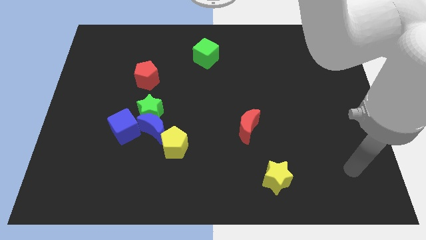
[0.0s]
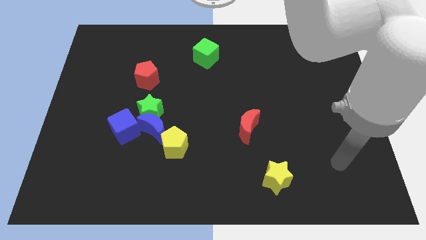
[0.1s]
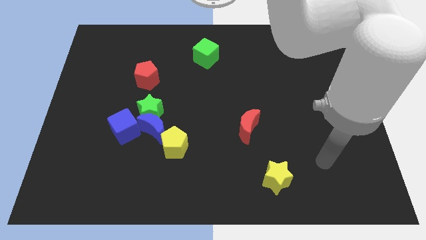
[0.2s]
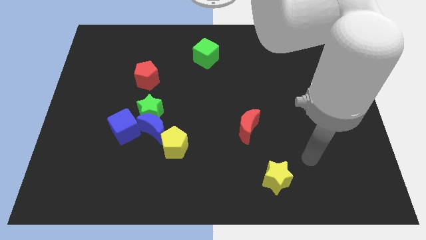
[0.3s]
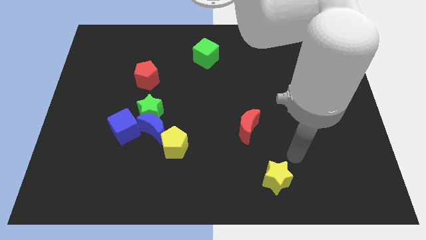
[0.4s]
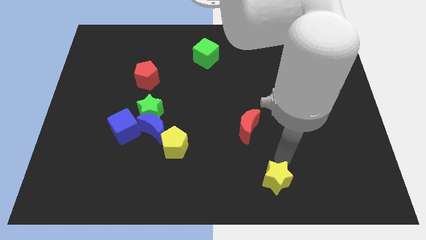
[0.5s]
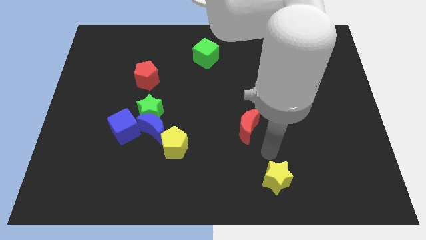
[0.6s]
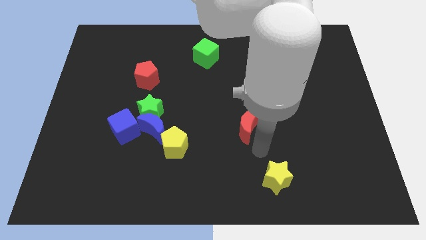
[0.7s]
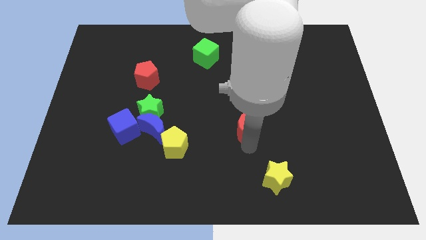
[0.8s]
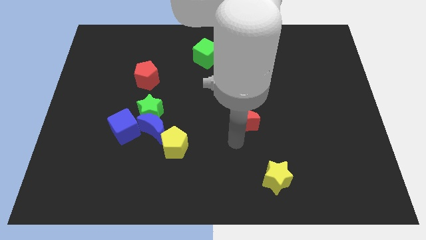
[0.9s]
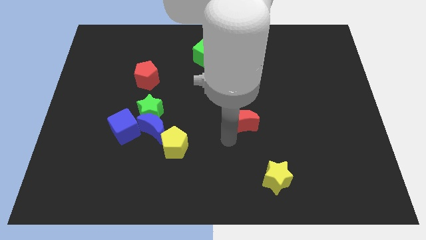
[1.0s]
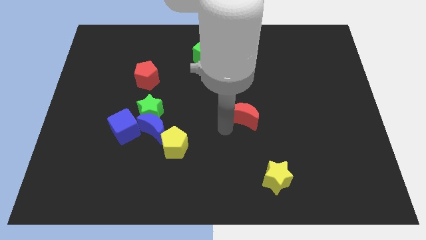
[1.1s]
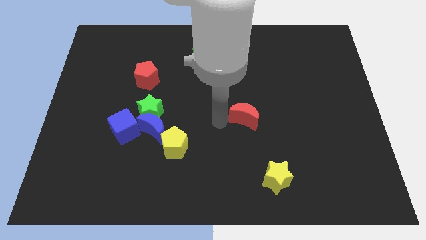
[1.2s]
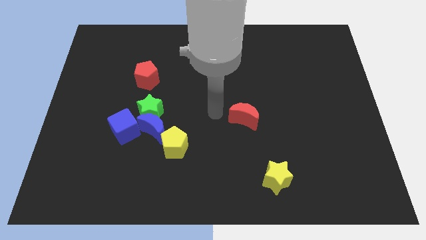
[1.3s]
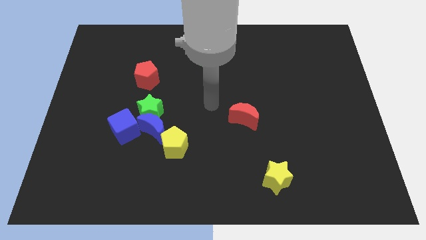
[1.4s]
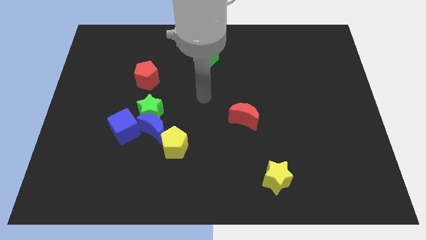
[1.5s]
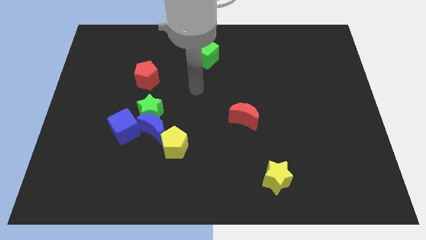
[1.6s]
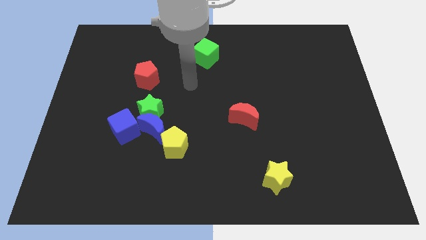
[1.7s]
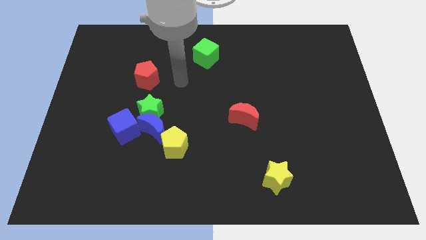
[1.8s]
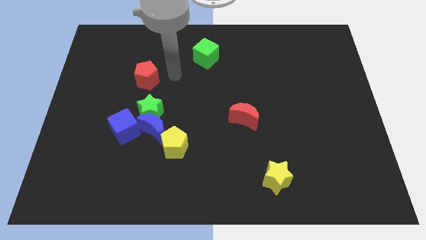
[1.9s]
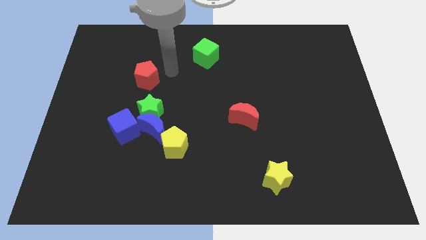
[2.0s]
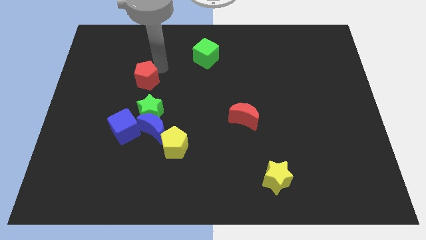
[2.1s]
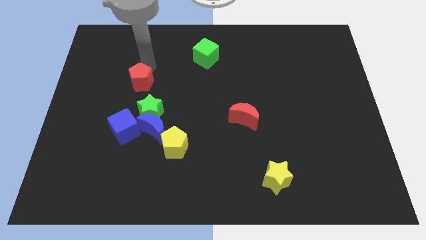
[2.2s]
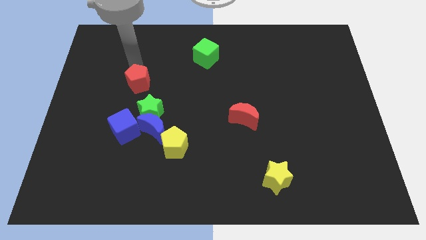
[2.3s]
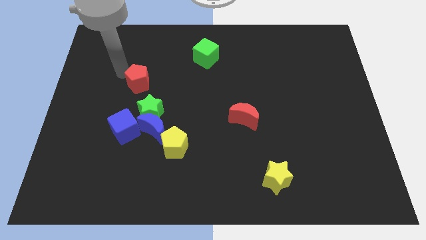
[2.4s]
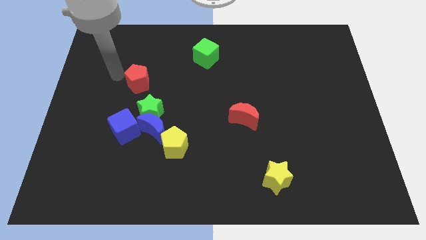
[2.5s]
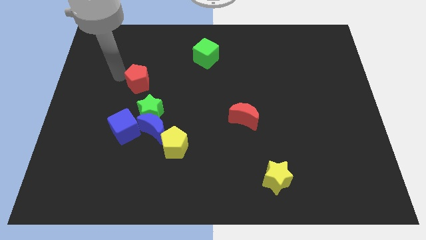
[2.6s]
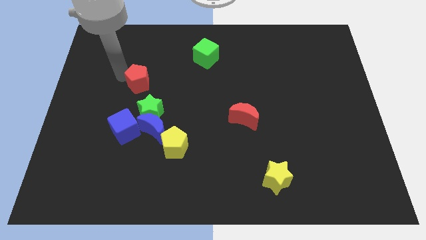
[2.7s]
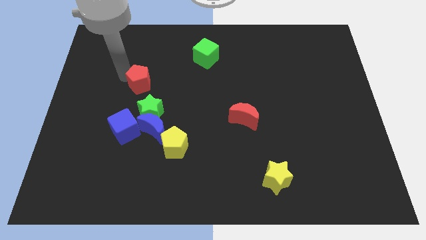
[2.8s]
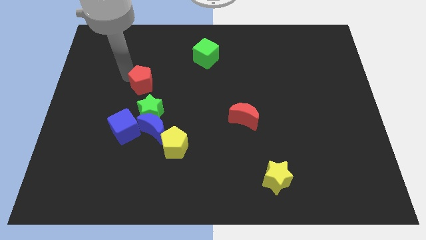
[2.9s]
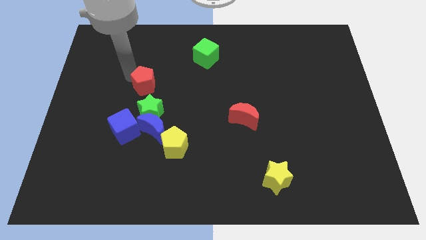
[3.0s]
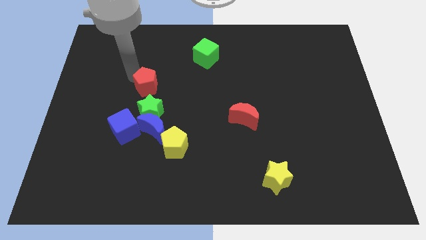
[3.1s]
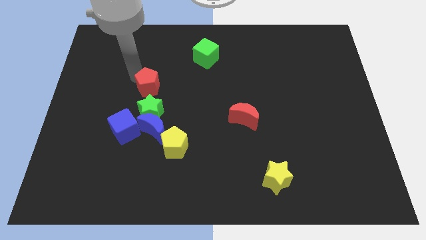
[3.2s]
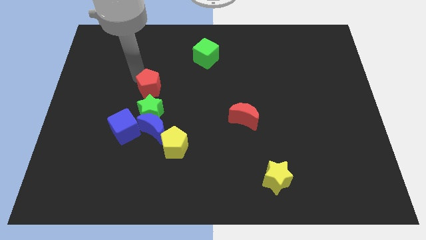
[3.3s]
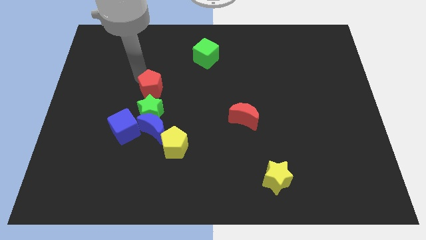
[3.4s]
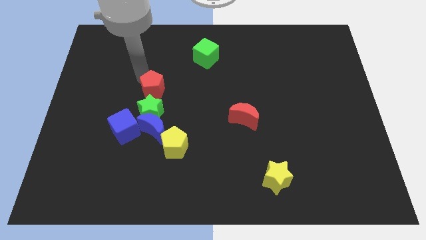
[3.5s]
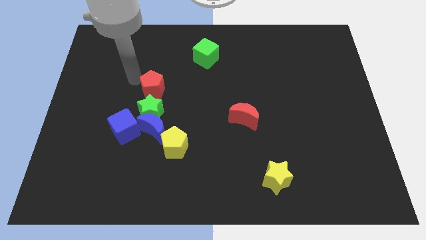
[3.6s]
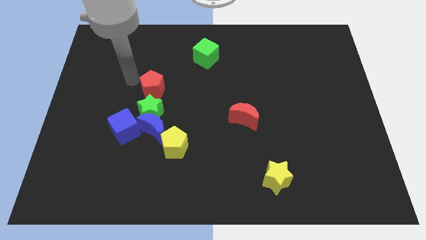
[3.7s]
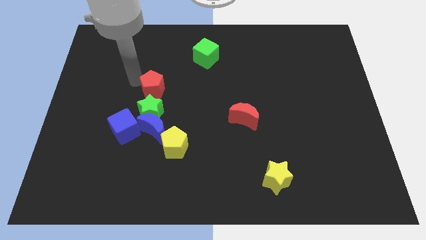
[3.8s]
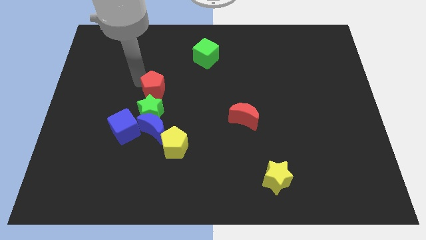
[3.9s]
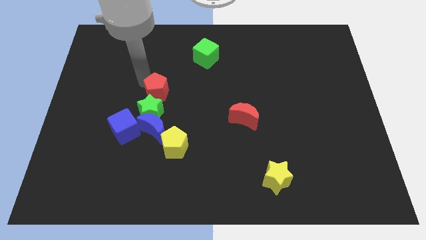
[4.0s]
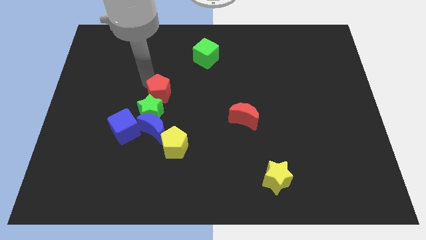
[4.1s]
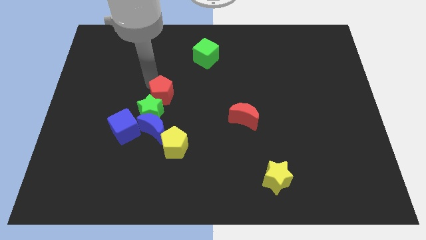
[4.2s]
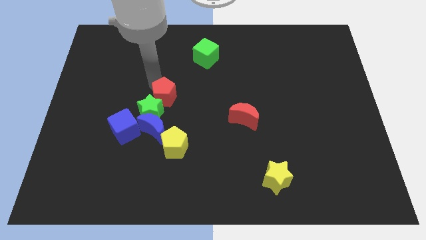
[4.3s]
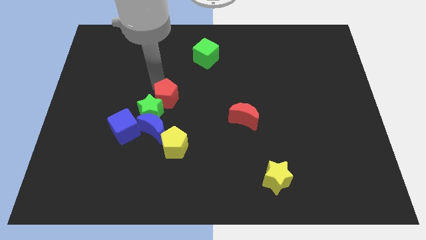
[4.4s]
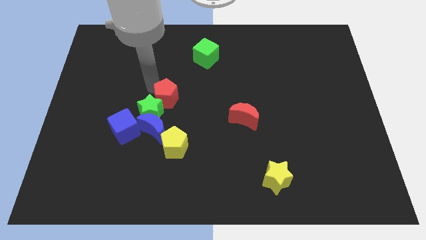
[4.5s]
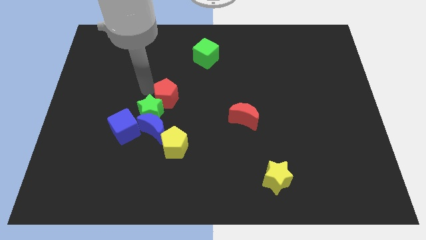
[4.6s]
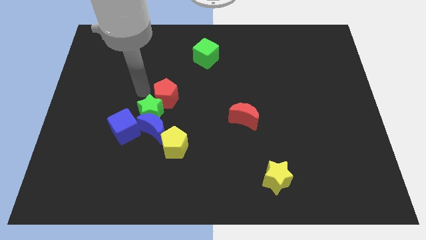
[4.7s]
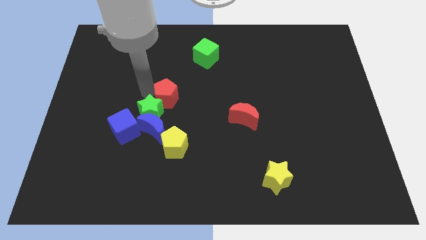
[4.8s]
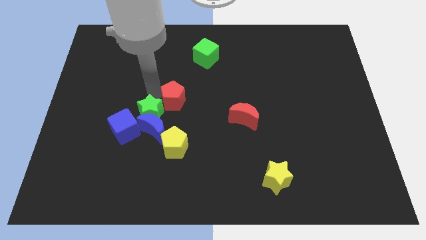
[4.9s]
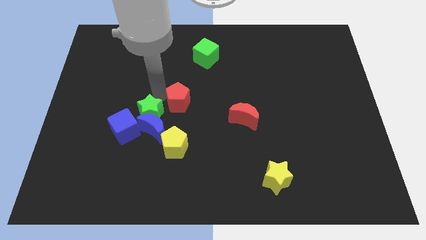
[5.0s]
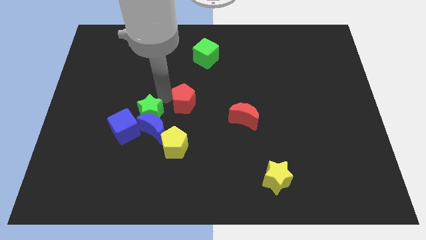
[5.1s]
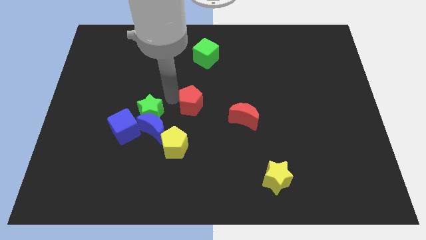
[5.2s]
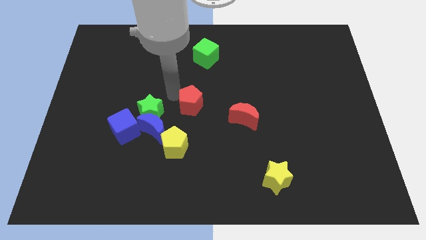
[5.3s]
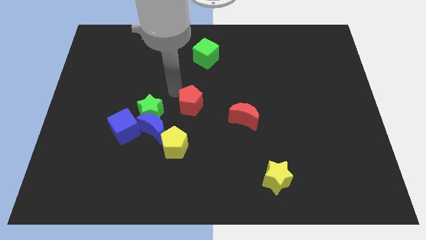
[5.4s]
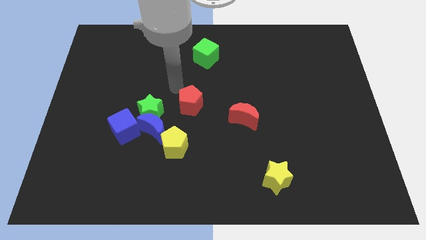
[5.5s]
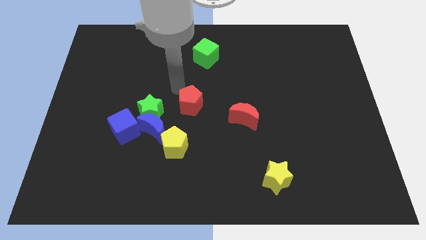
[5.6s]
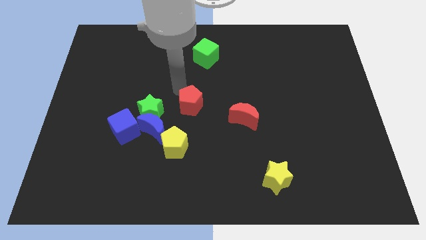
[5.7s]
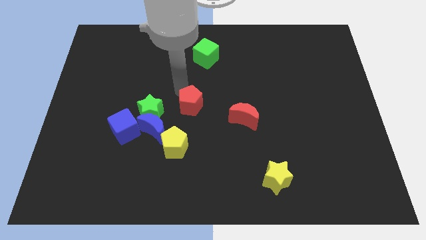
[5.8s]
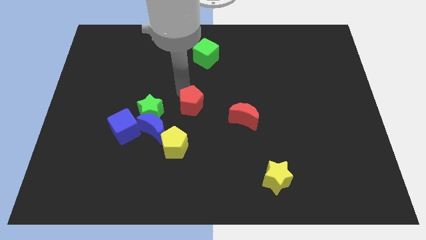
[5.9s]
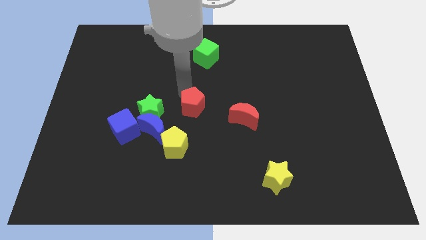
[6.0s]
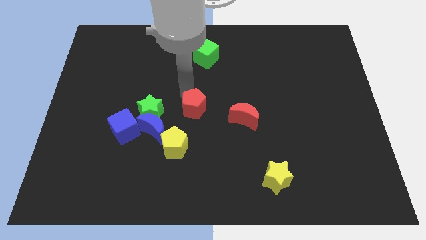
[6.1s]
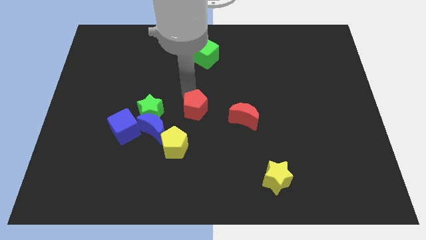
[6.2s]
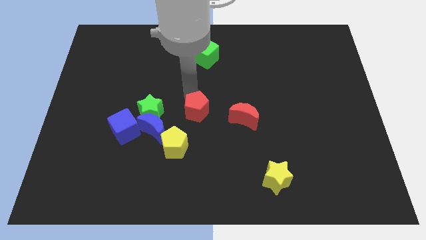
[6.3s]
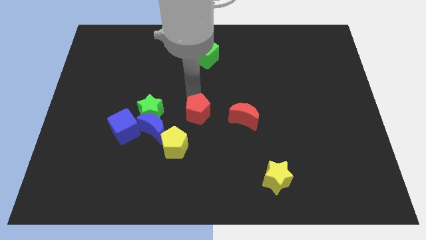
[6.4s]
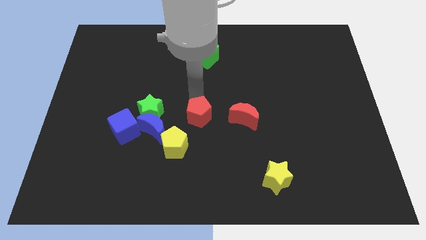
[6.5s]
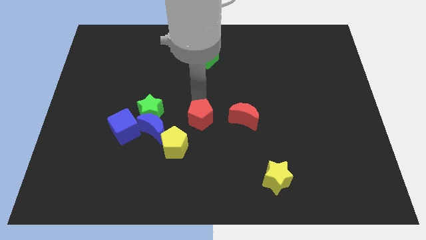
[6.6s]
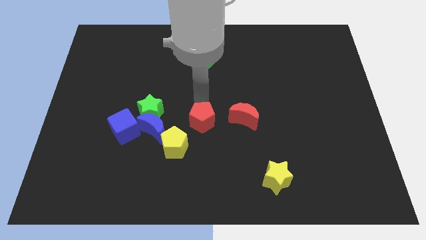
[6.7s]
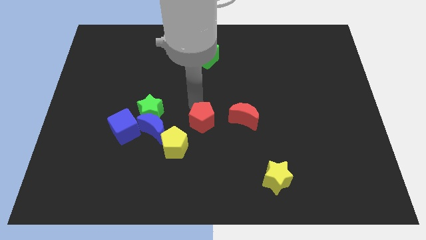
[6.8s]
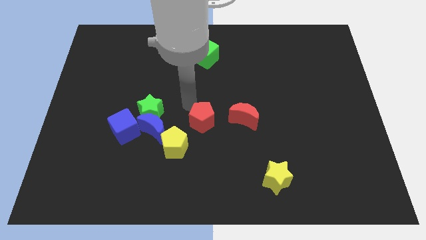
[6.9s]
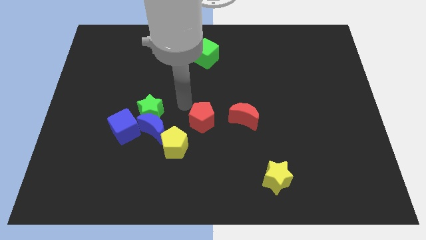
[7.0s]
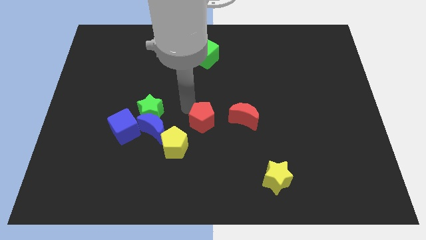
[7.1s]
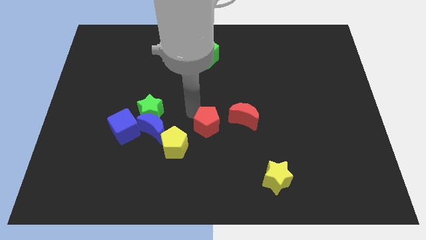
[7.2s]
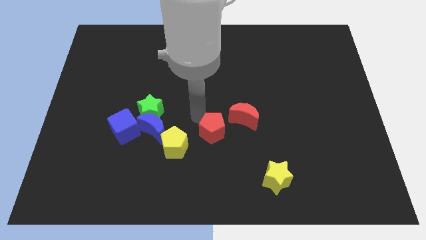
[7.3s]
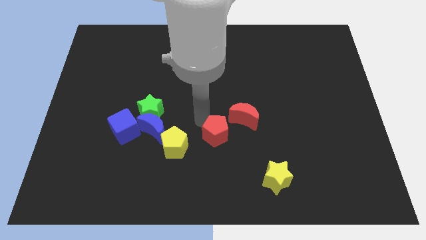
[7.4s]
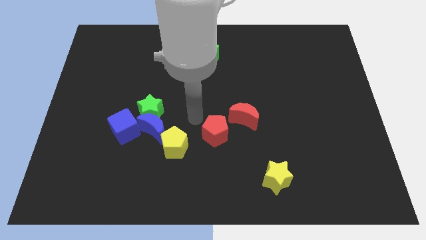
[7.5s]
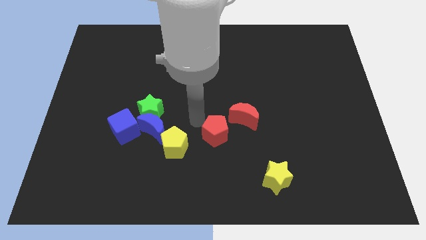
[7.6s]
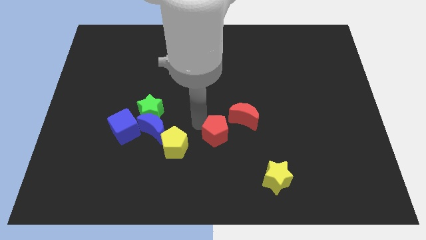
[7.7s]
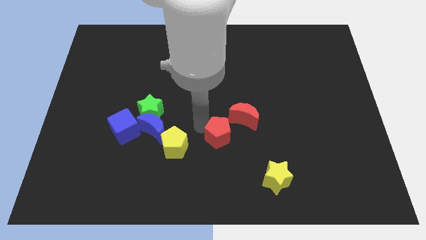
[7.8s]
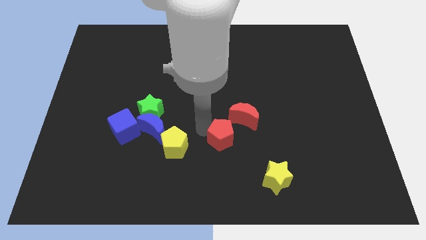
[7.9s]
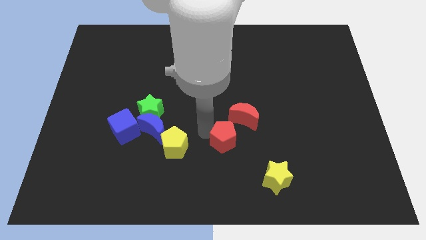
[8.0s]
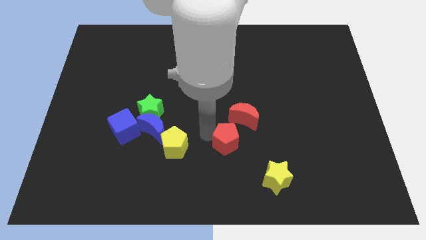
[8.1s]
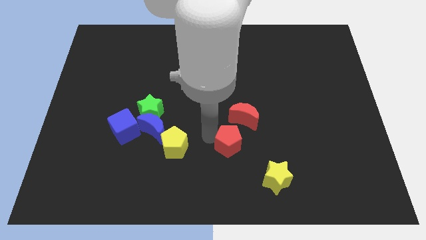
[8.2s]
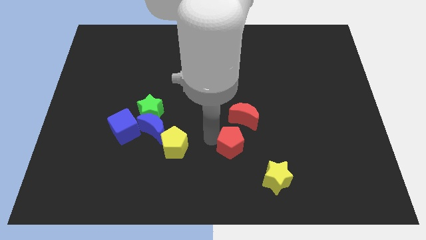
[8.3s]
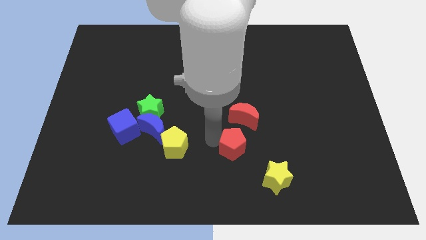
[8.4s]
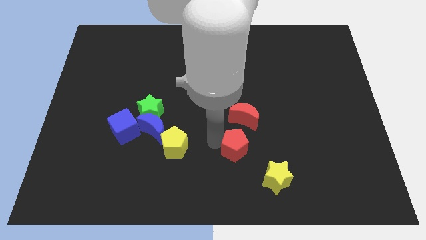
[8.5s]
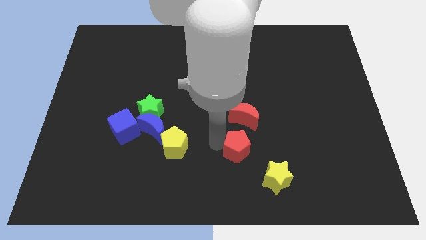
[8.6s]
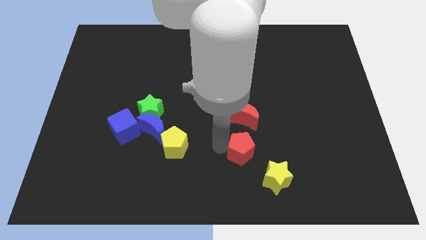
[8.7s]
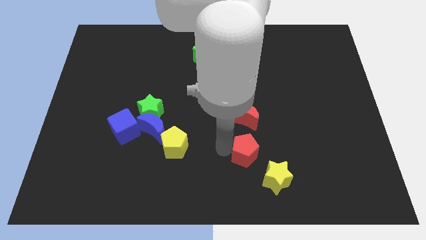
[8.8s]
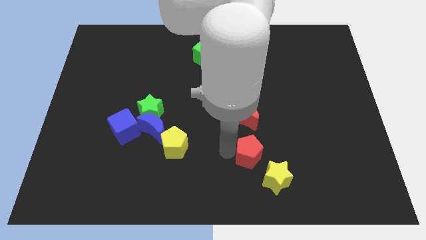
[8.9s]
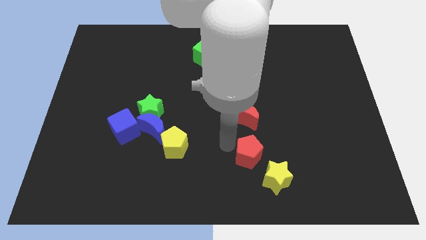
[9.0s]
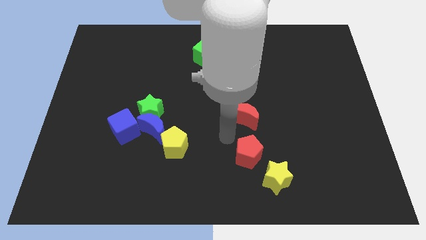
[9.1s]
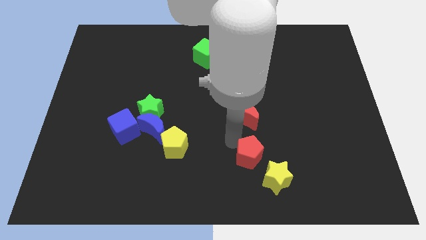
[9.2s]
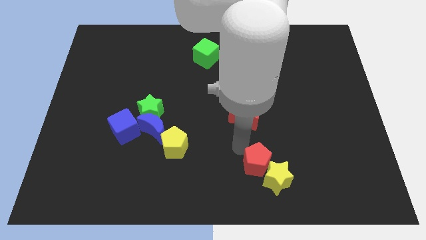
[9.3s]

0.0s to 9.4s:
put the red pentagon close to the yellow star
